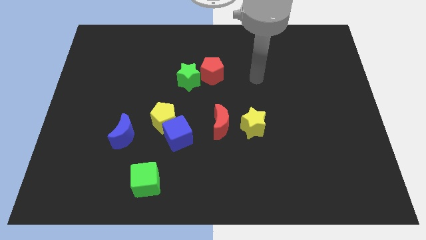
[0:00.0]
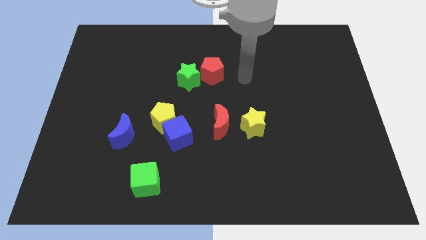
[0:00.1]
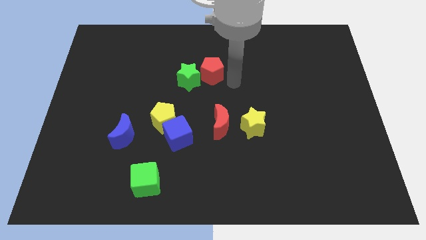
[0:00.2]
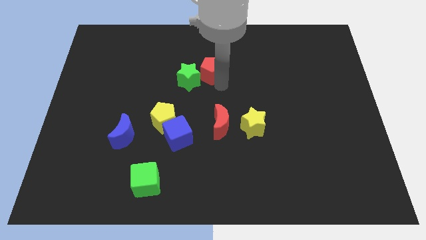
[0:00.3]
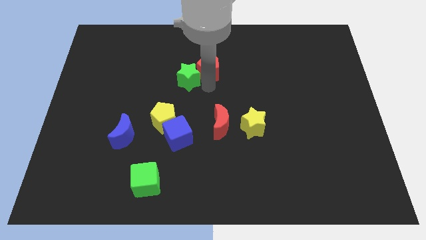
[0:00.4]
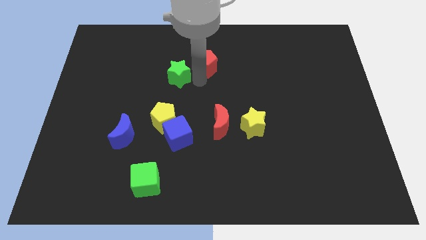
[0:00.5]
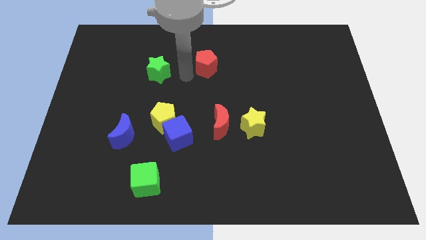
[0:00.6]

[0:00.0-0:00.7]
pull the red pentagon apart from the green star

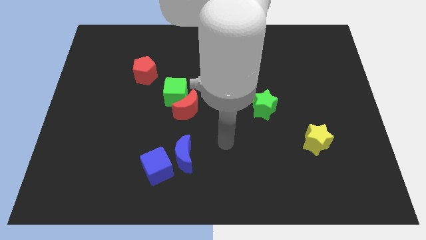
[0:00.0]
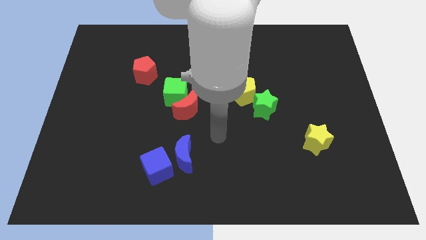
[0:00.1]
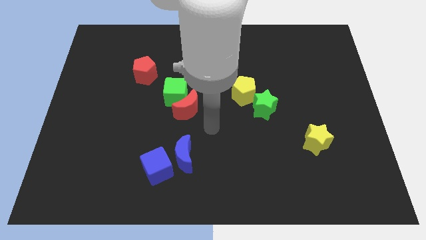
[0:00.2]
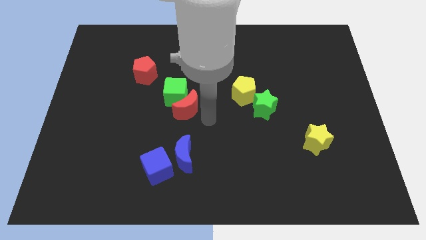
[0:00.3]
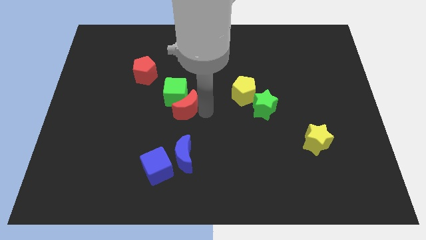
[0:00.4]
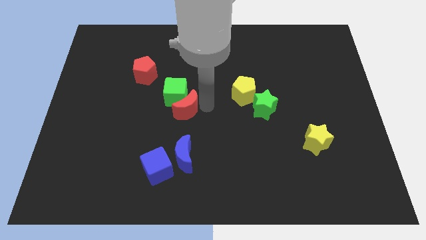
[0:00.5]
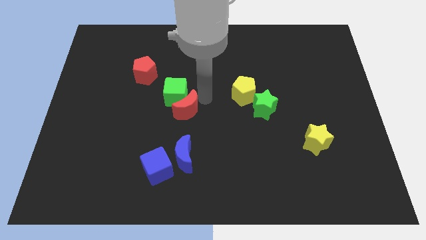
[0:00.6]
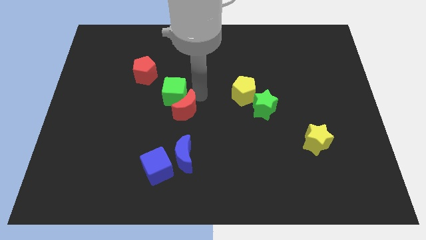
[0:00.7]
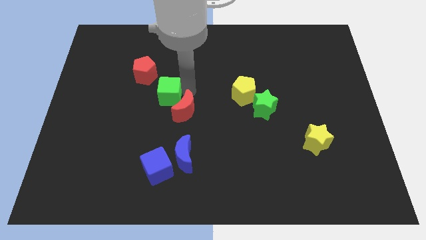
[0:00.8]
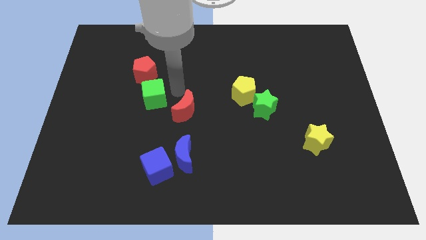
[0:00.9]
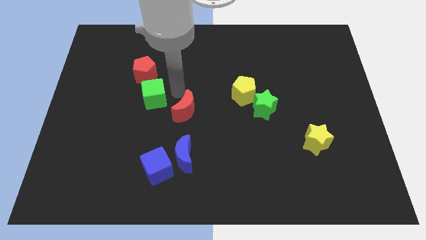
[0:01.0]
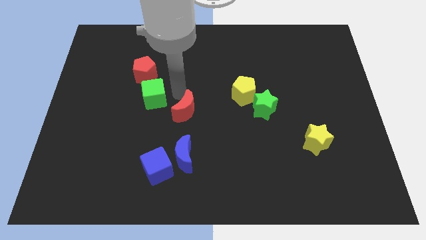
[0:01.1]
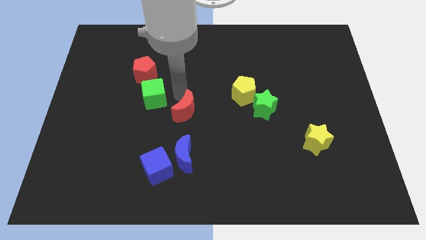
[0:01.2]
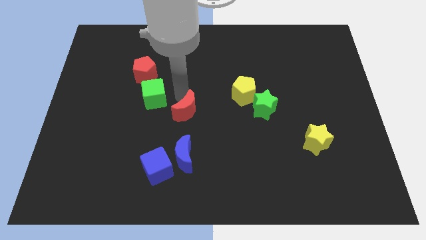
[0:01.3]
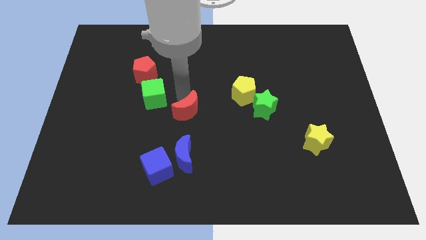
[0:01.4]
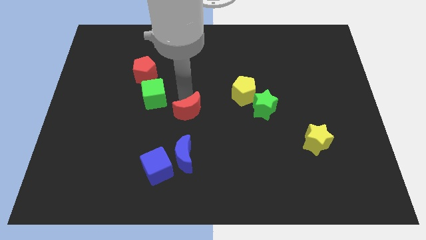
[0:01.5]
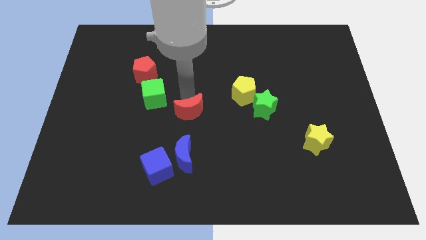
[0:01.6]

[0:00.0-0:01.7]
move the red moon away from the green cube

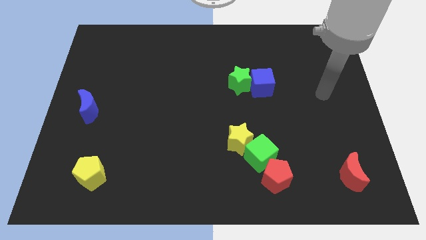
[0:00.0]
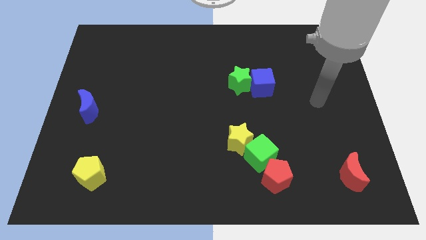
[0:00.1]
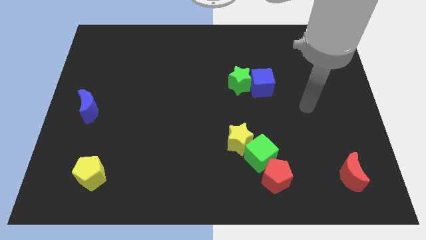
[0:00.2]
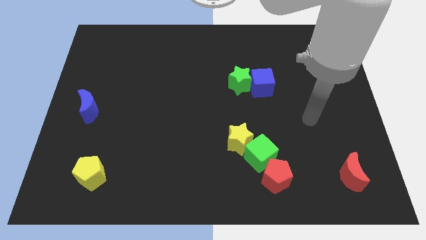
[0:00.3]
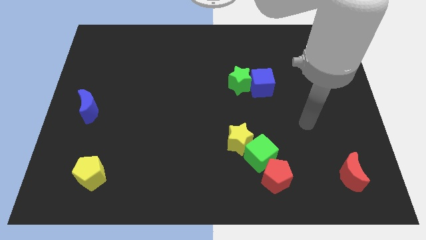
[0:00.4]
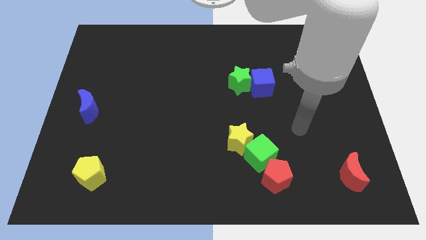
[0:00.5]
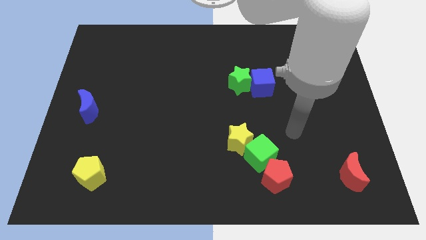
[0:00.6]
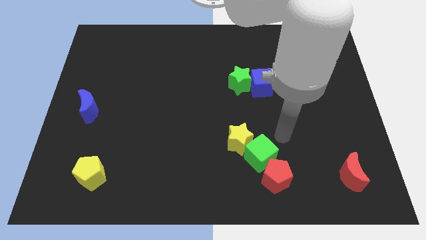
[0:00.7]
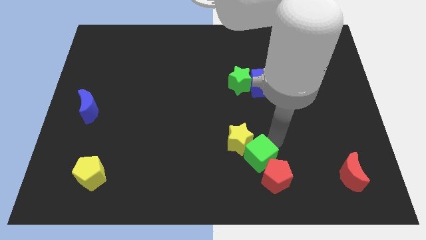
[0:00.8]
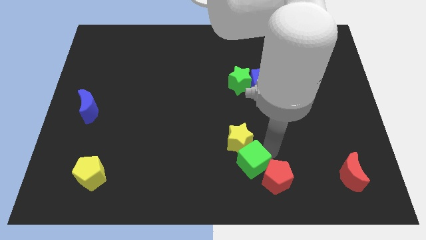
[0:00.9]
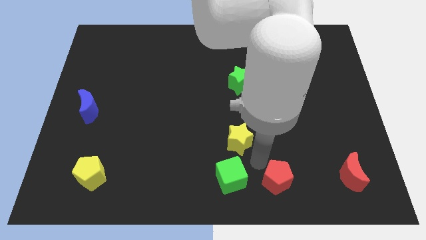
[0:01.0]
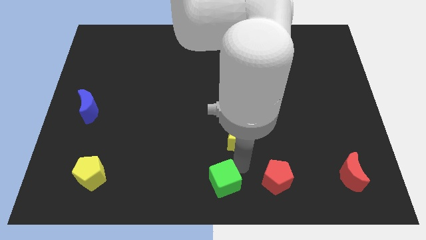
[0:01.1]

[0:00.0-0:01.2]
pull the yellow star apart from the green cube

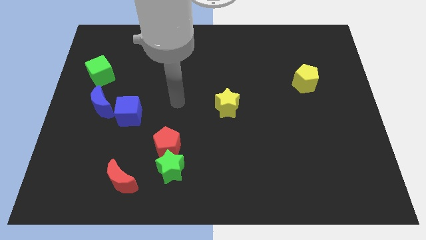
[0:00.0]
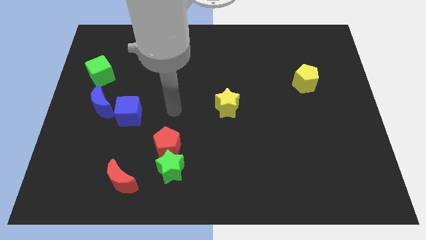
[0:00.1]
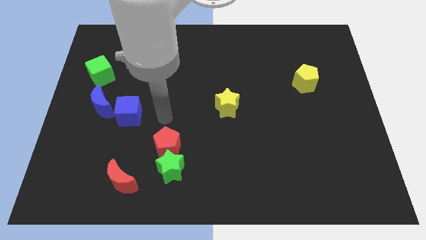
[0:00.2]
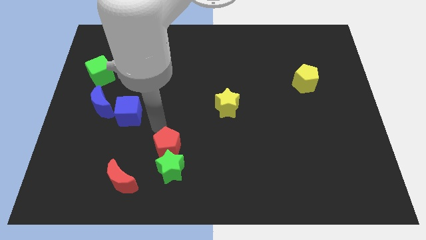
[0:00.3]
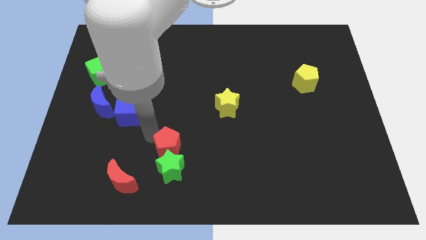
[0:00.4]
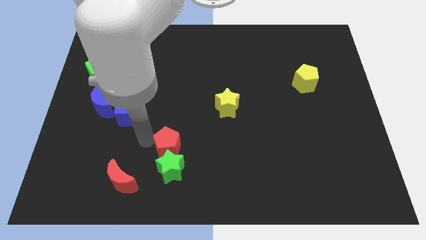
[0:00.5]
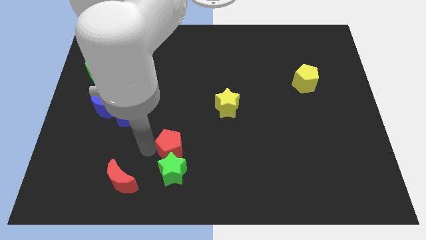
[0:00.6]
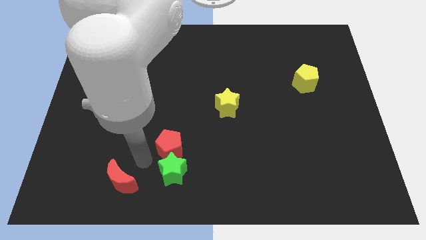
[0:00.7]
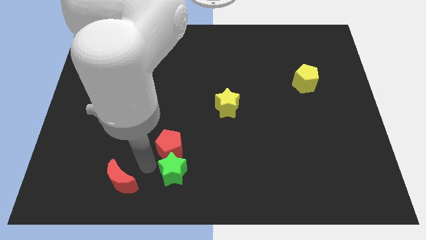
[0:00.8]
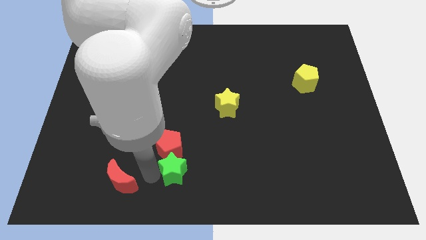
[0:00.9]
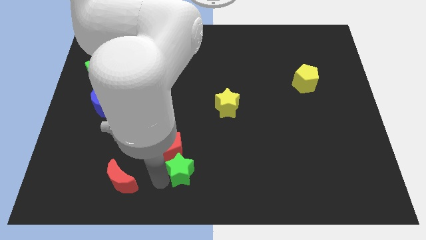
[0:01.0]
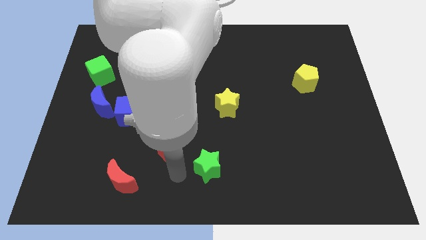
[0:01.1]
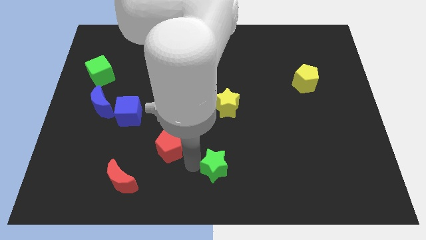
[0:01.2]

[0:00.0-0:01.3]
separate the red pentagon from the green star

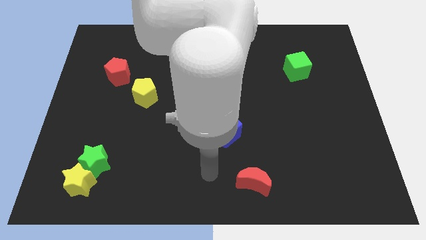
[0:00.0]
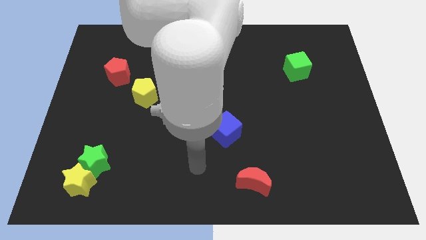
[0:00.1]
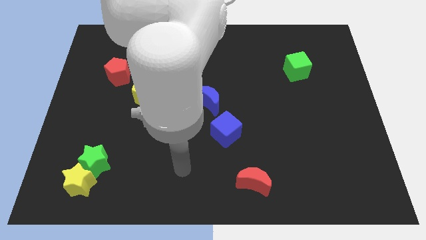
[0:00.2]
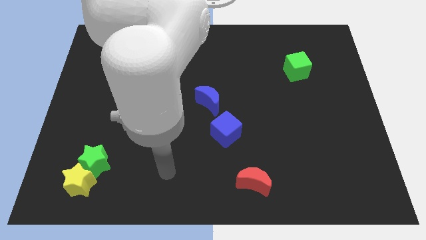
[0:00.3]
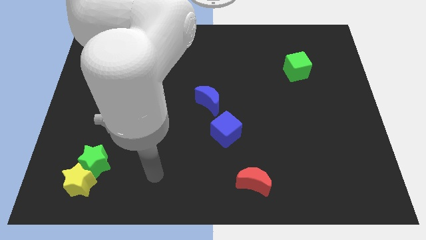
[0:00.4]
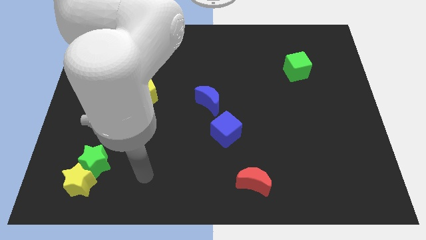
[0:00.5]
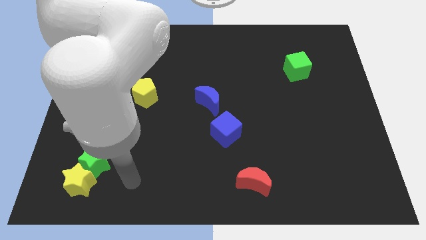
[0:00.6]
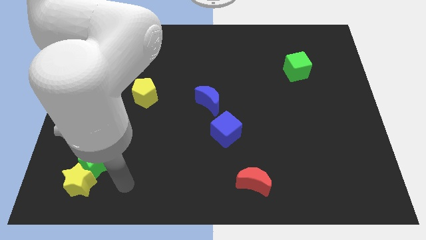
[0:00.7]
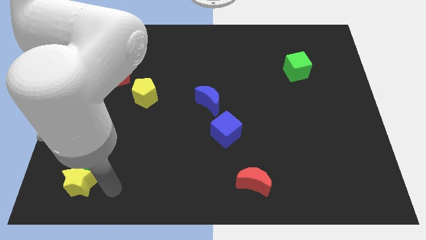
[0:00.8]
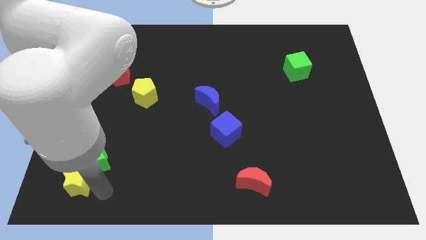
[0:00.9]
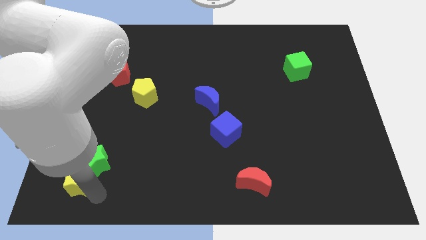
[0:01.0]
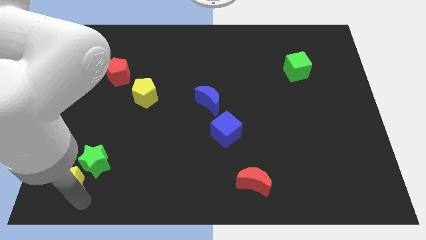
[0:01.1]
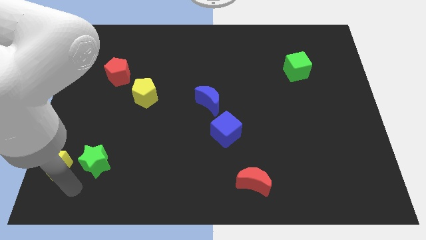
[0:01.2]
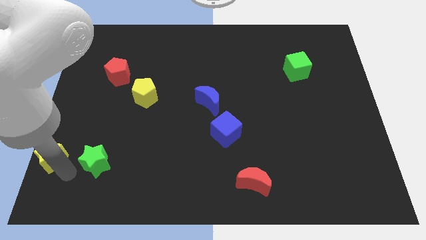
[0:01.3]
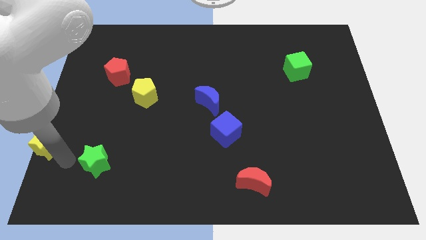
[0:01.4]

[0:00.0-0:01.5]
separate the green star from the yellow star

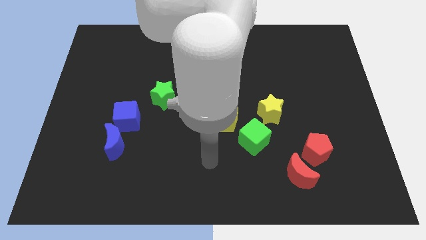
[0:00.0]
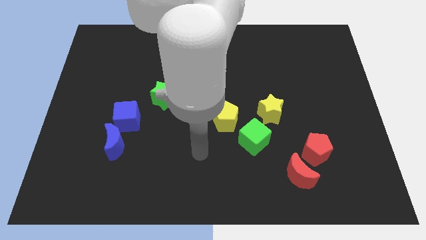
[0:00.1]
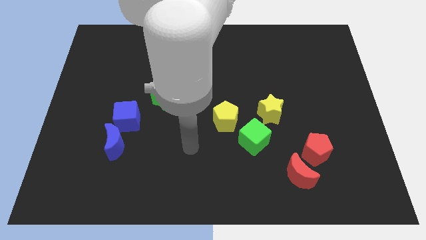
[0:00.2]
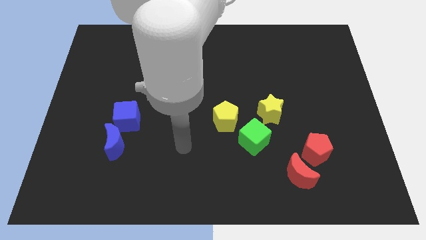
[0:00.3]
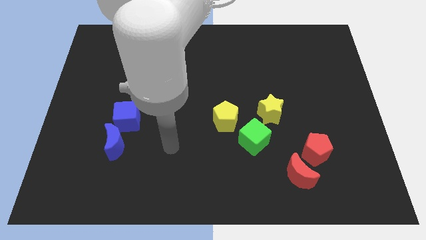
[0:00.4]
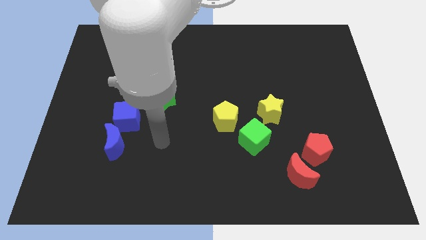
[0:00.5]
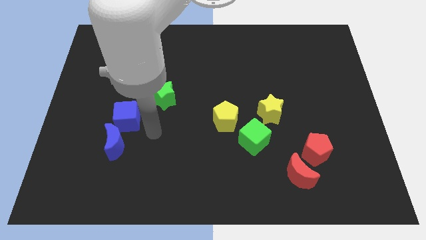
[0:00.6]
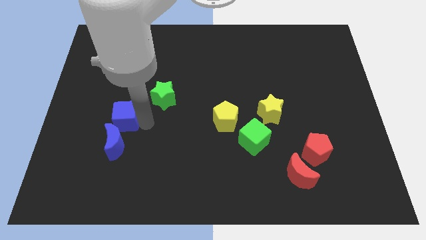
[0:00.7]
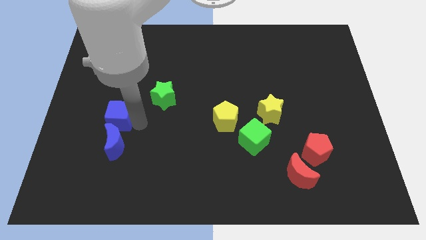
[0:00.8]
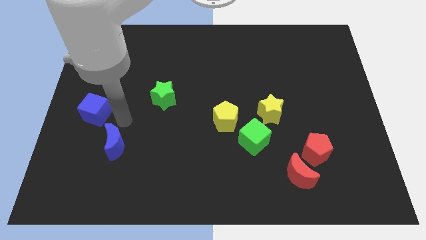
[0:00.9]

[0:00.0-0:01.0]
move the blue moon away from the blue cube

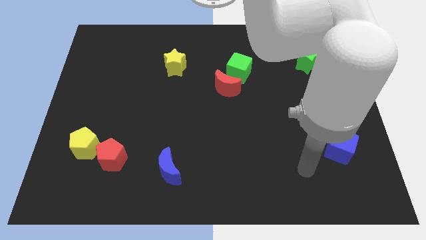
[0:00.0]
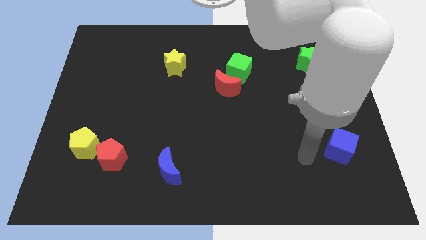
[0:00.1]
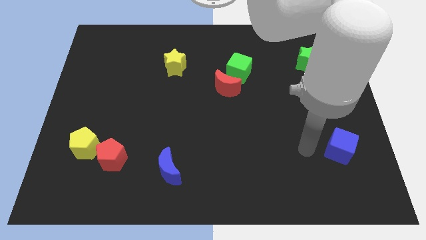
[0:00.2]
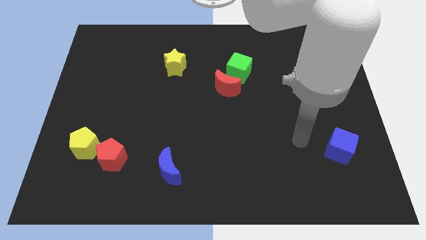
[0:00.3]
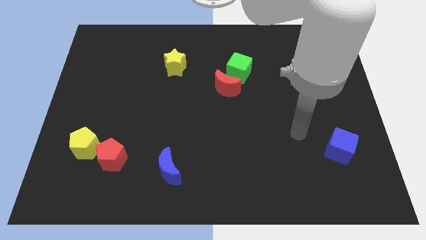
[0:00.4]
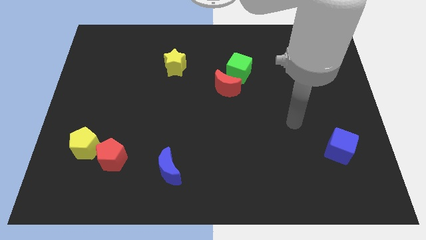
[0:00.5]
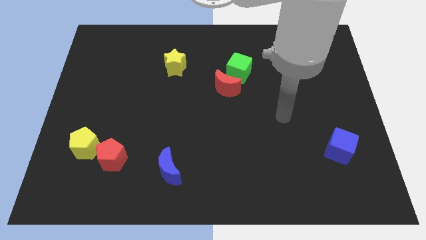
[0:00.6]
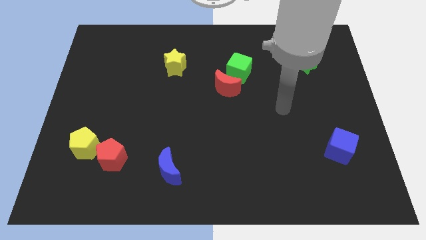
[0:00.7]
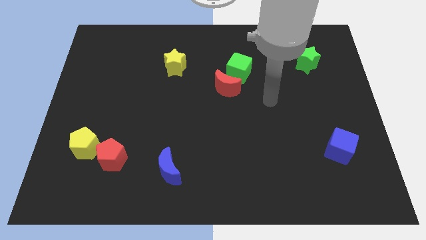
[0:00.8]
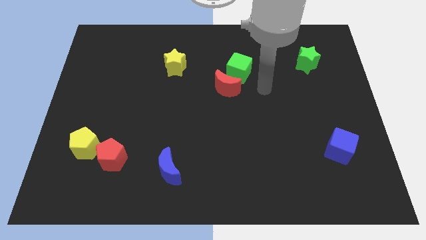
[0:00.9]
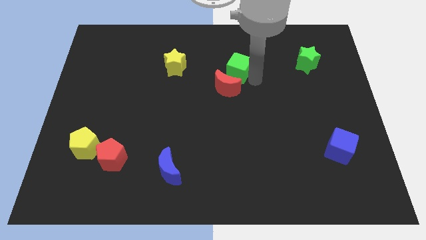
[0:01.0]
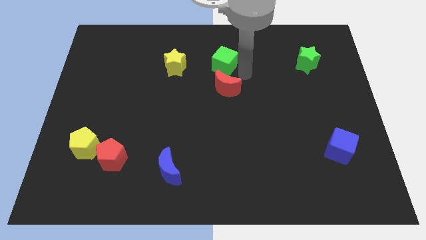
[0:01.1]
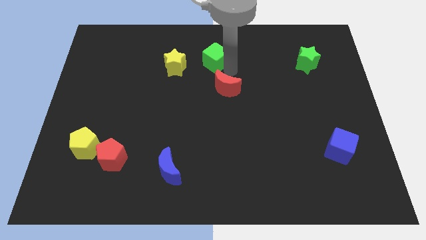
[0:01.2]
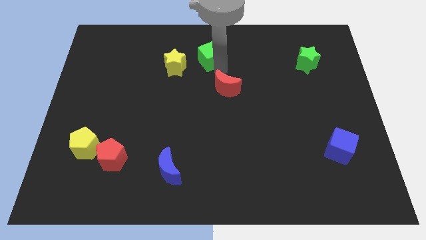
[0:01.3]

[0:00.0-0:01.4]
pull the red moon apart from the green cube

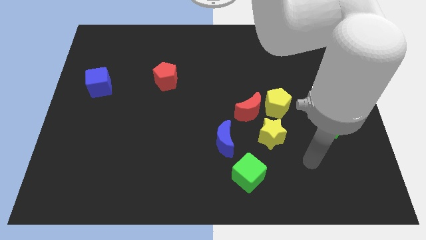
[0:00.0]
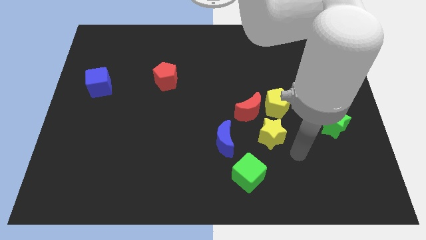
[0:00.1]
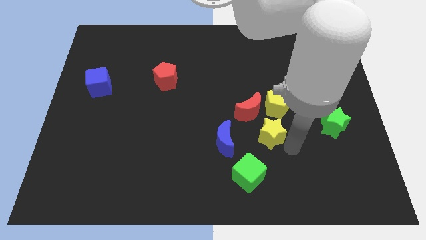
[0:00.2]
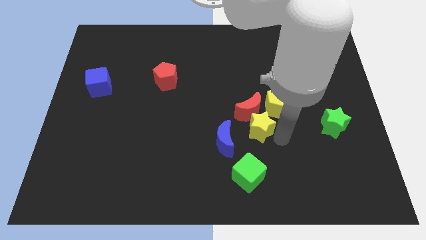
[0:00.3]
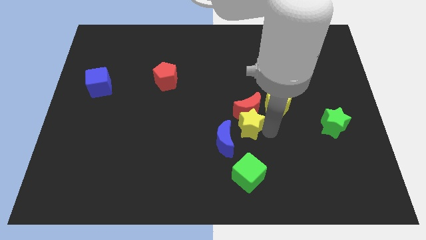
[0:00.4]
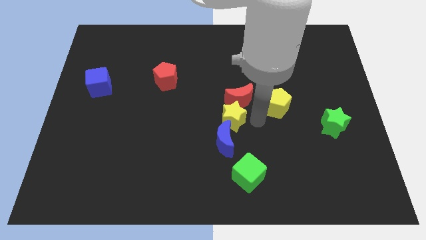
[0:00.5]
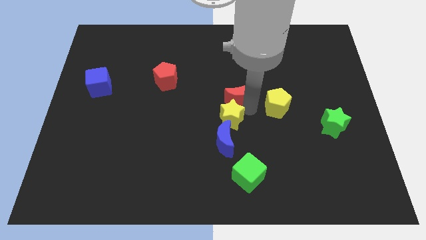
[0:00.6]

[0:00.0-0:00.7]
pull the yellow pentagon apart from the red moon and yellow star

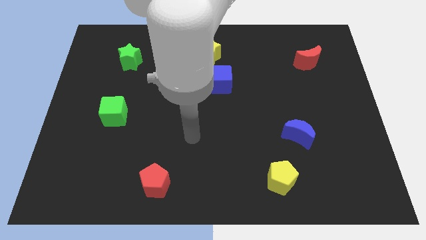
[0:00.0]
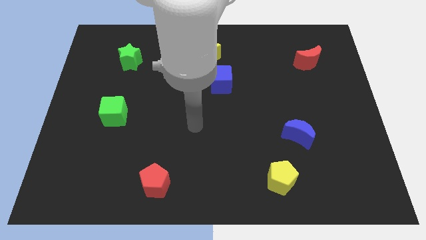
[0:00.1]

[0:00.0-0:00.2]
pull the blue cube apart from the yellow star
